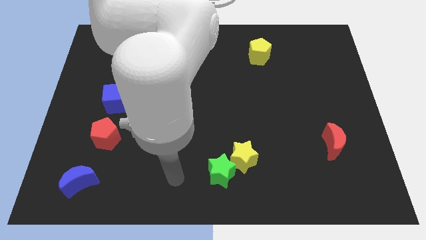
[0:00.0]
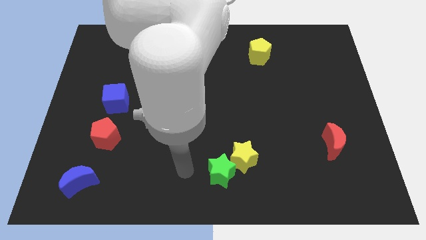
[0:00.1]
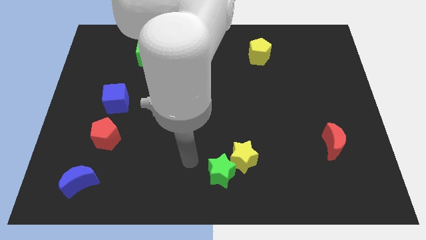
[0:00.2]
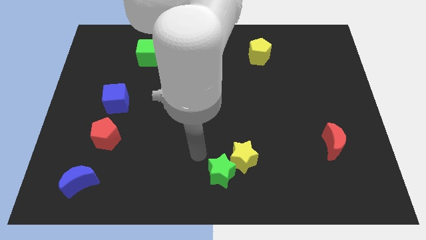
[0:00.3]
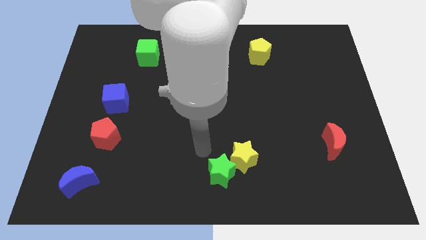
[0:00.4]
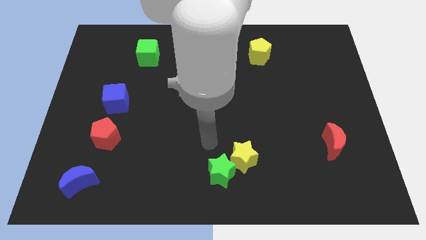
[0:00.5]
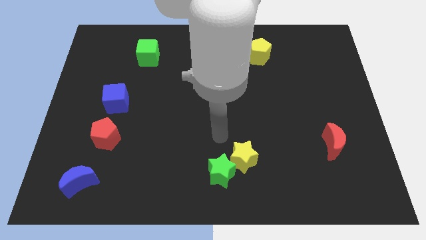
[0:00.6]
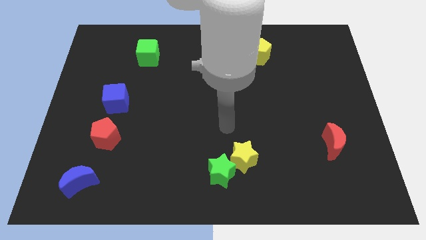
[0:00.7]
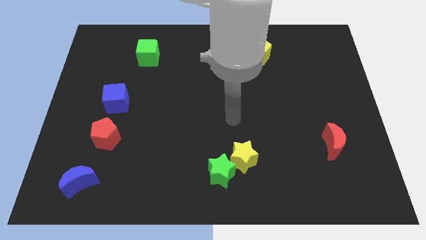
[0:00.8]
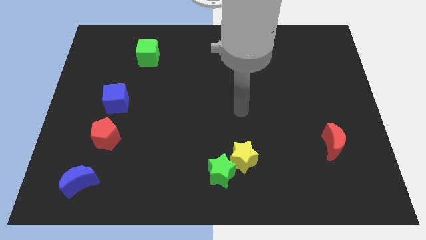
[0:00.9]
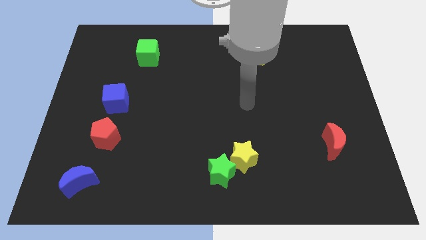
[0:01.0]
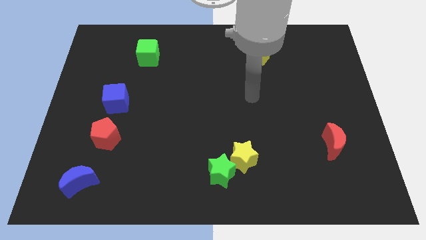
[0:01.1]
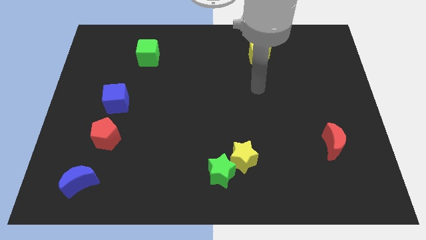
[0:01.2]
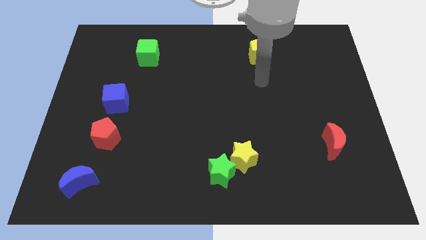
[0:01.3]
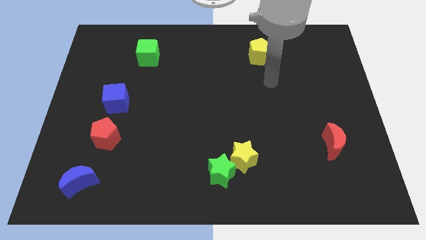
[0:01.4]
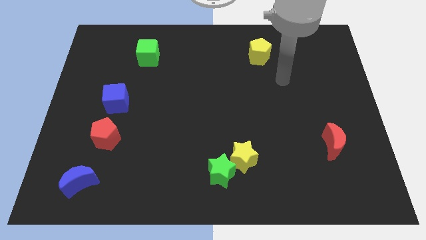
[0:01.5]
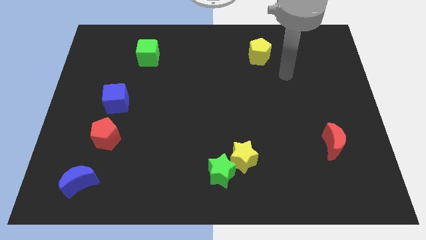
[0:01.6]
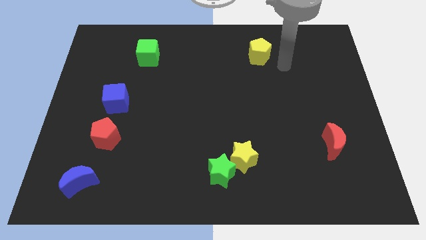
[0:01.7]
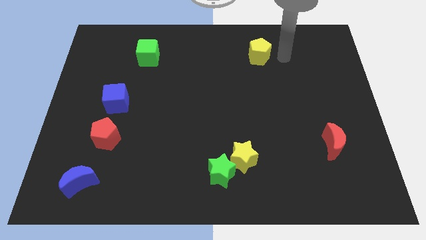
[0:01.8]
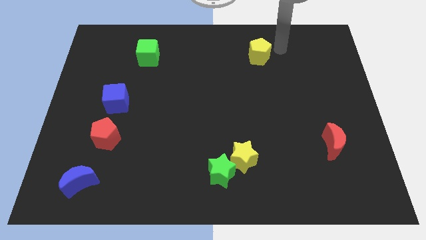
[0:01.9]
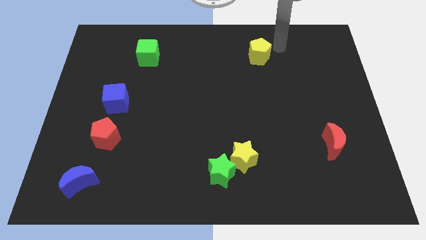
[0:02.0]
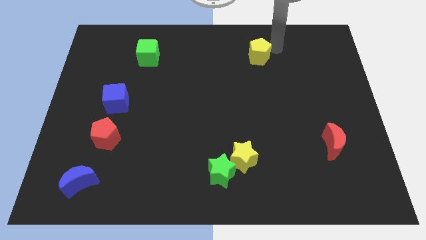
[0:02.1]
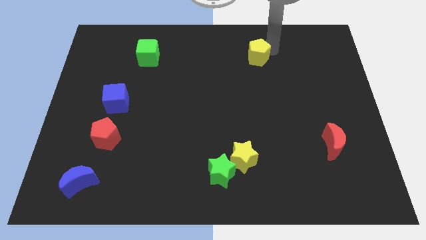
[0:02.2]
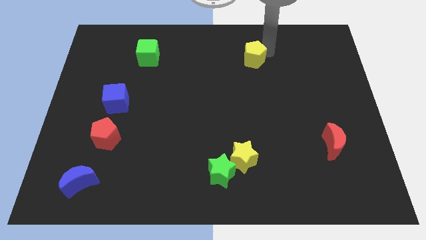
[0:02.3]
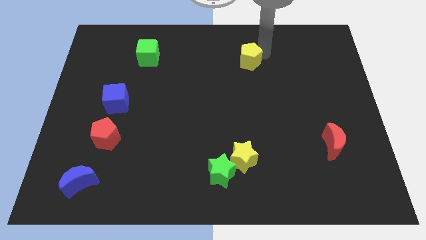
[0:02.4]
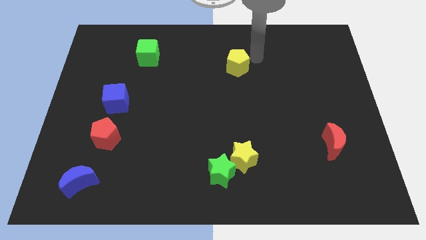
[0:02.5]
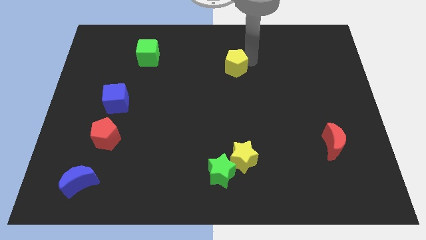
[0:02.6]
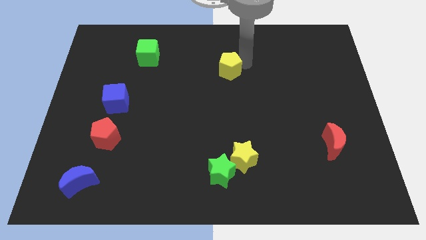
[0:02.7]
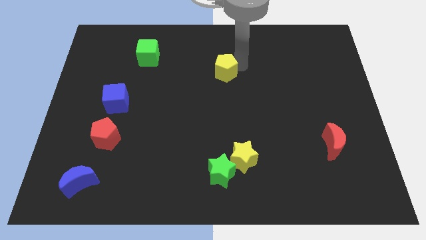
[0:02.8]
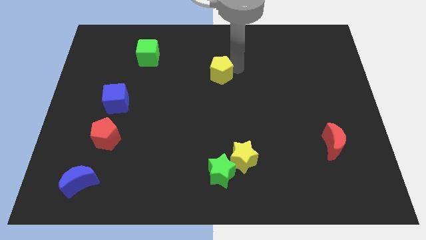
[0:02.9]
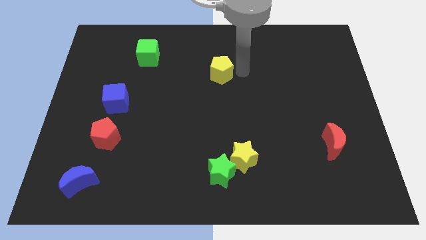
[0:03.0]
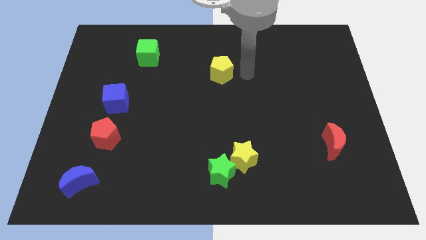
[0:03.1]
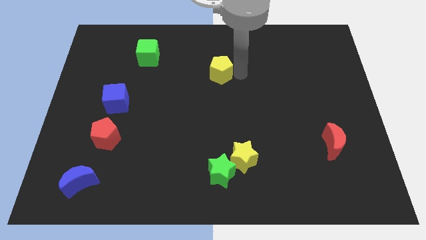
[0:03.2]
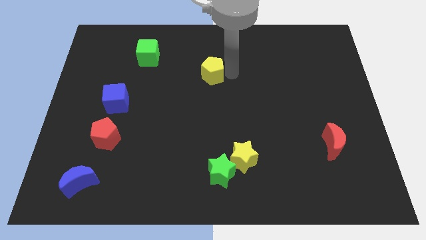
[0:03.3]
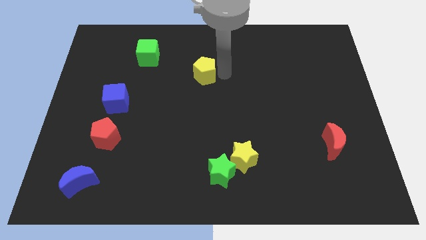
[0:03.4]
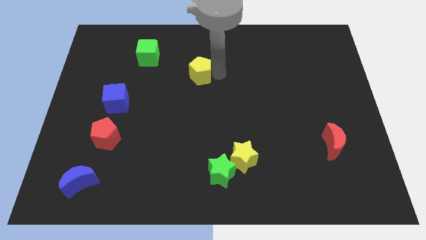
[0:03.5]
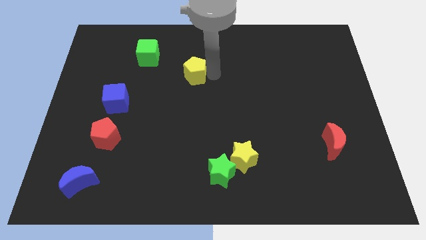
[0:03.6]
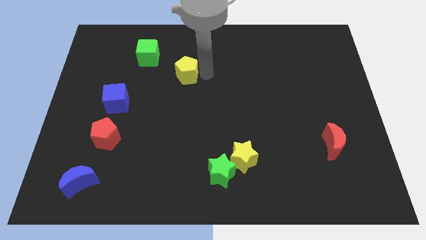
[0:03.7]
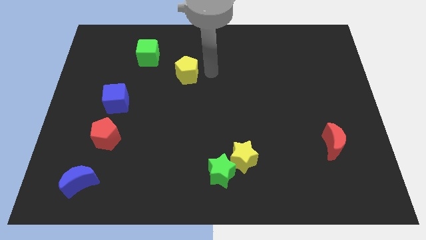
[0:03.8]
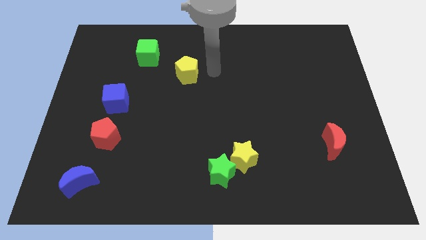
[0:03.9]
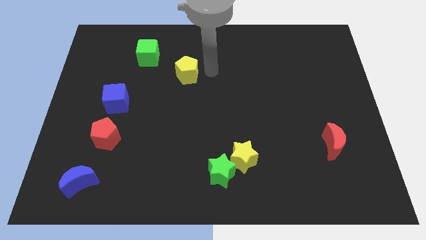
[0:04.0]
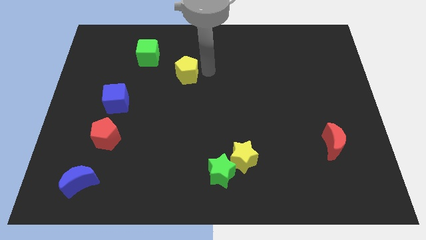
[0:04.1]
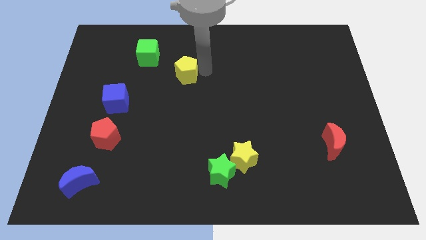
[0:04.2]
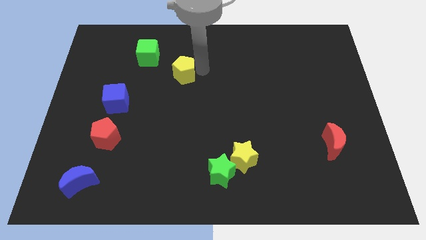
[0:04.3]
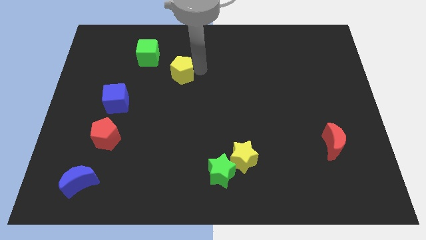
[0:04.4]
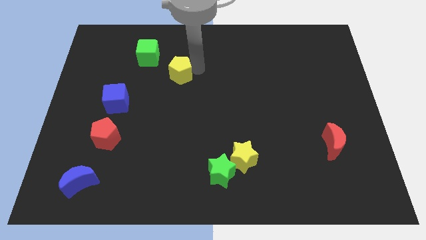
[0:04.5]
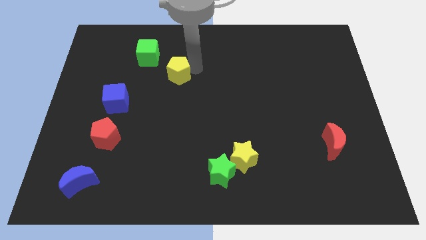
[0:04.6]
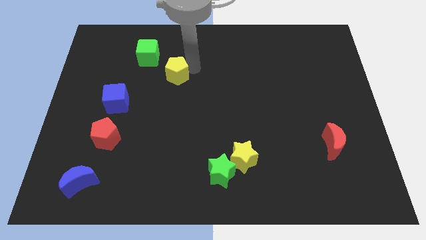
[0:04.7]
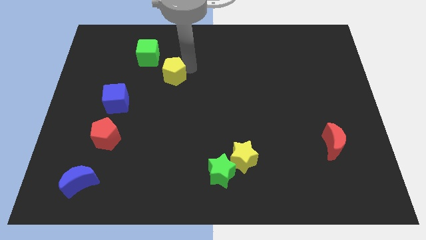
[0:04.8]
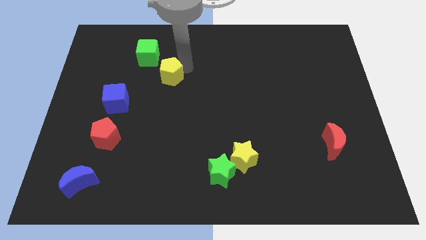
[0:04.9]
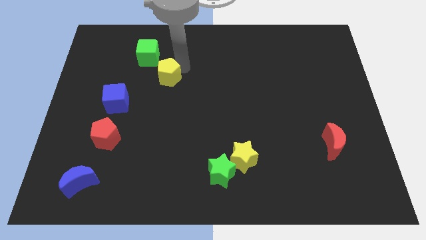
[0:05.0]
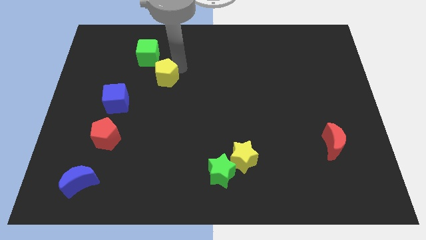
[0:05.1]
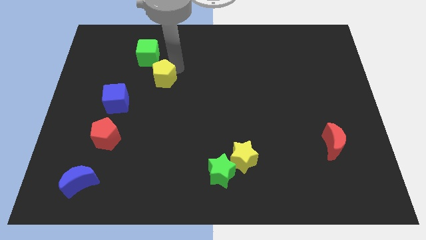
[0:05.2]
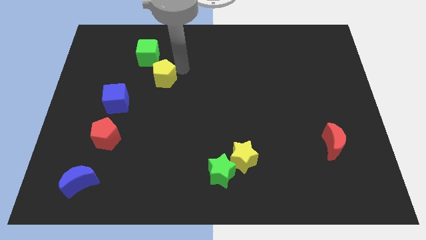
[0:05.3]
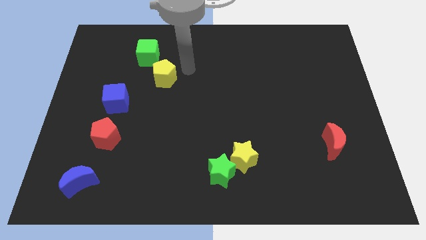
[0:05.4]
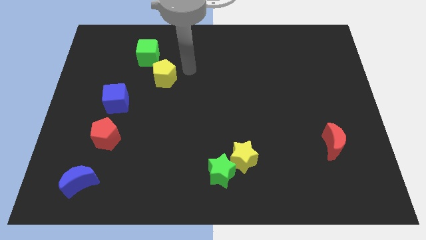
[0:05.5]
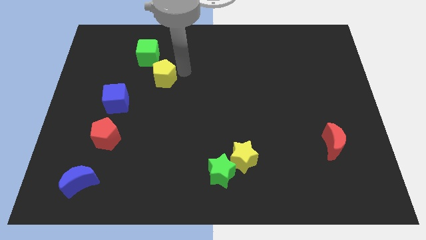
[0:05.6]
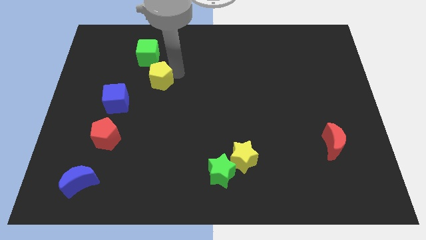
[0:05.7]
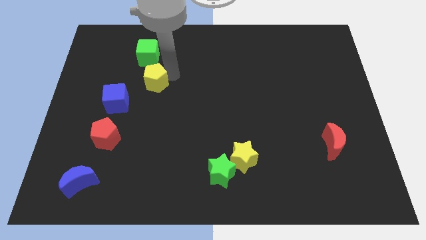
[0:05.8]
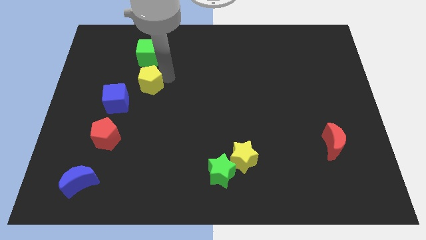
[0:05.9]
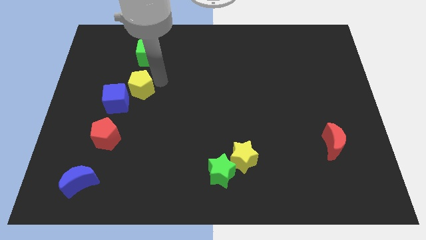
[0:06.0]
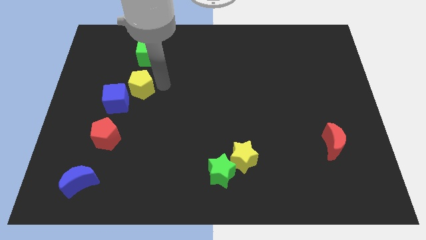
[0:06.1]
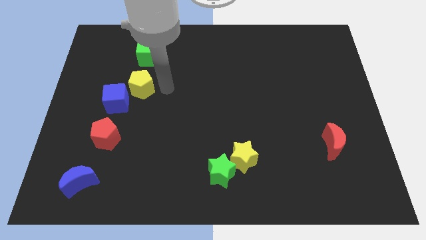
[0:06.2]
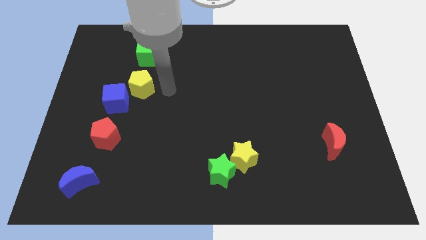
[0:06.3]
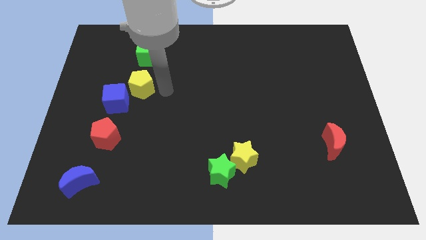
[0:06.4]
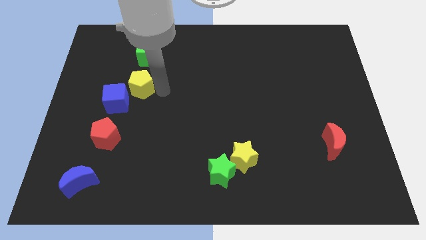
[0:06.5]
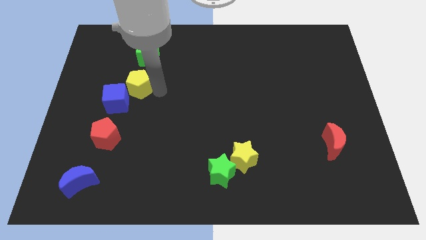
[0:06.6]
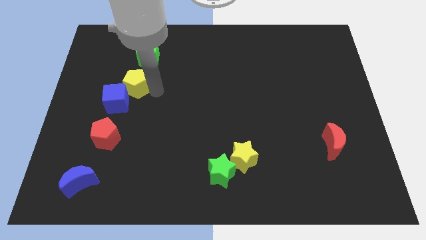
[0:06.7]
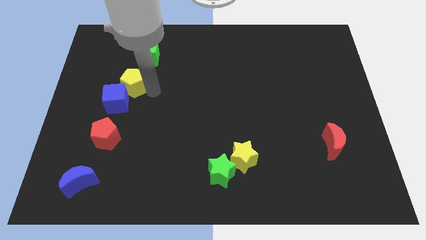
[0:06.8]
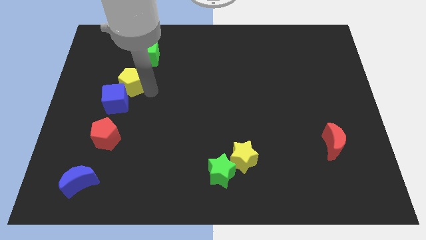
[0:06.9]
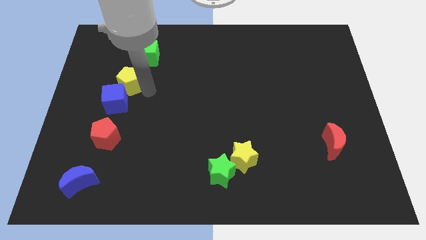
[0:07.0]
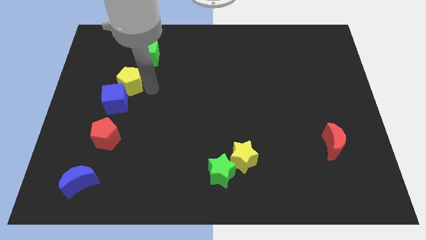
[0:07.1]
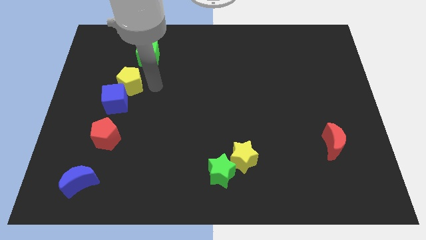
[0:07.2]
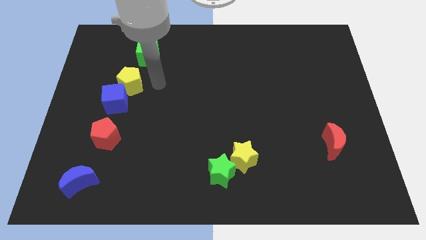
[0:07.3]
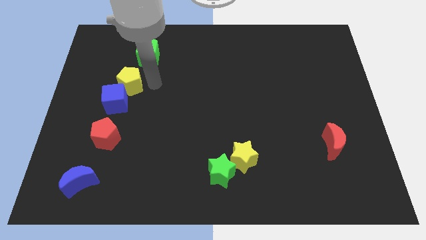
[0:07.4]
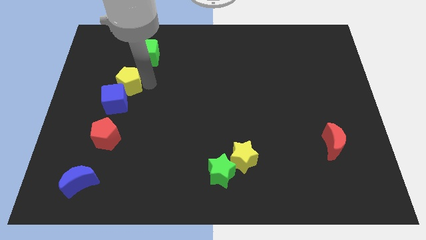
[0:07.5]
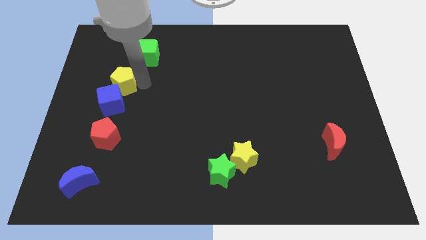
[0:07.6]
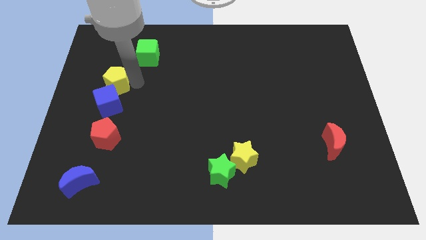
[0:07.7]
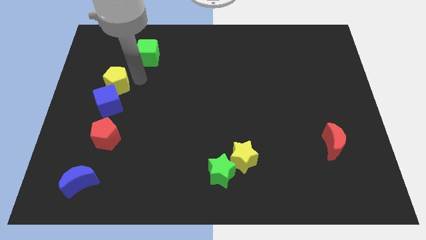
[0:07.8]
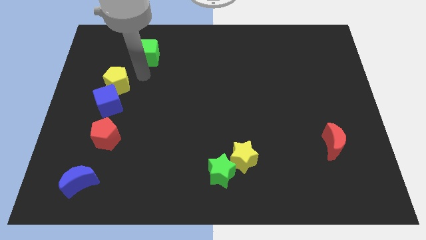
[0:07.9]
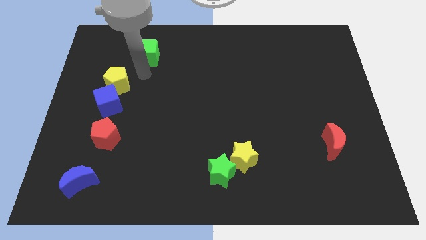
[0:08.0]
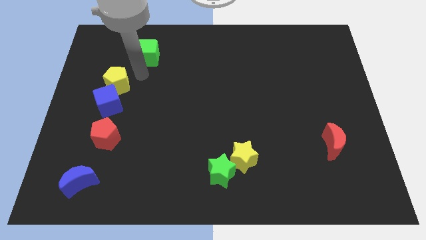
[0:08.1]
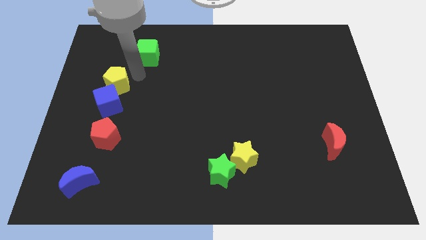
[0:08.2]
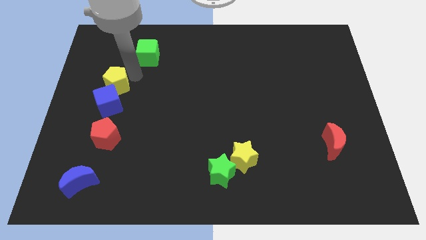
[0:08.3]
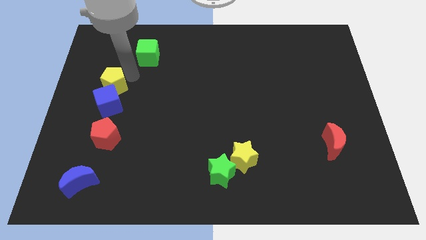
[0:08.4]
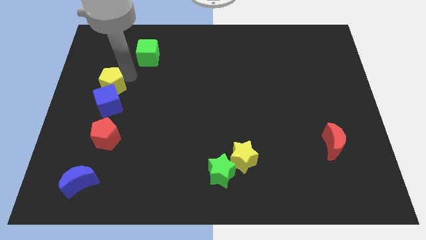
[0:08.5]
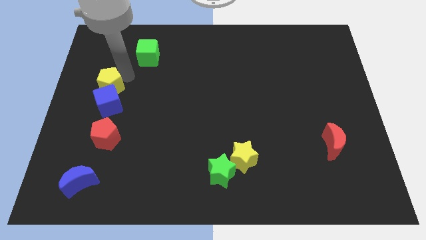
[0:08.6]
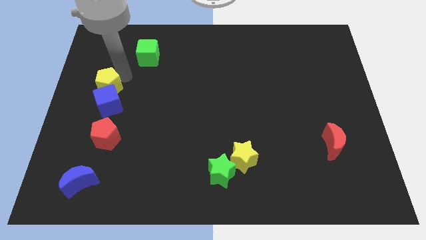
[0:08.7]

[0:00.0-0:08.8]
slide the yellow pentagon to the center left
